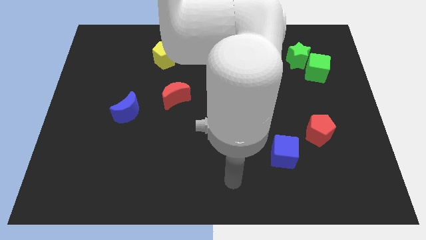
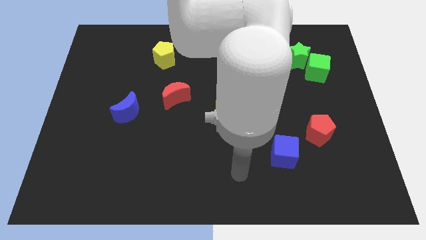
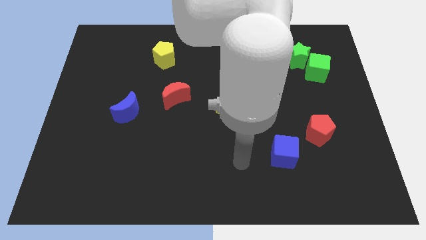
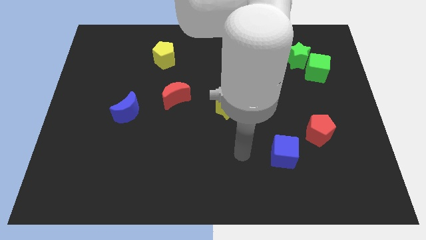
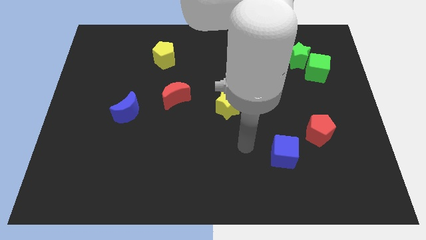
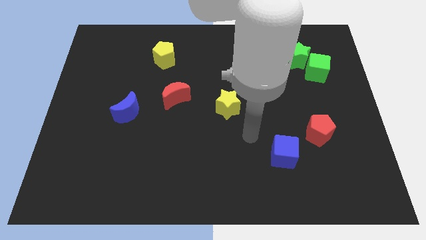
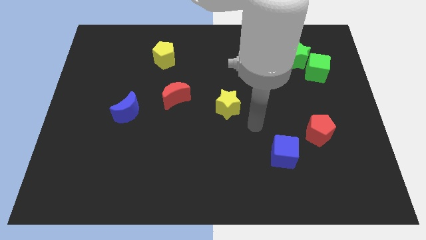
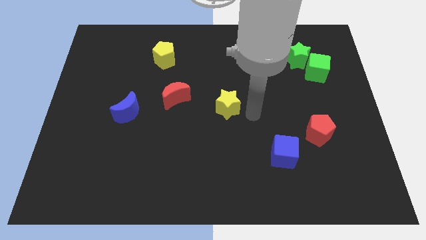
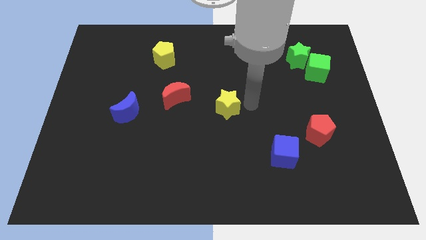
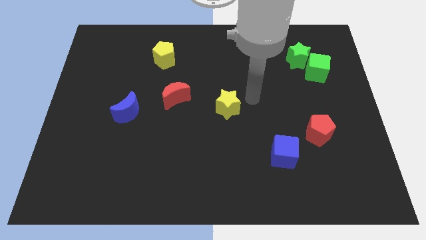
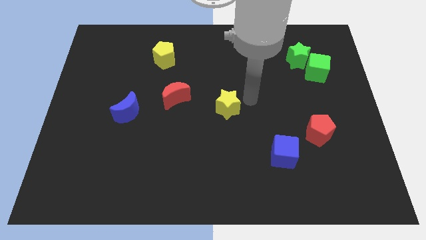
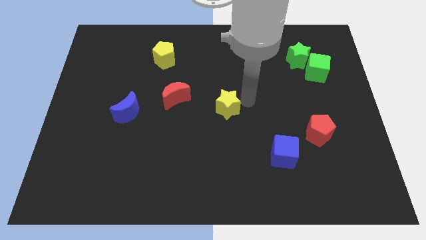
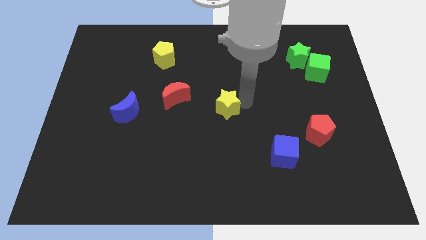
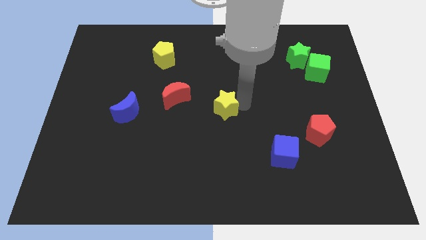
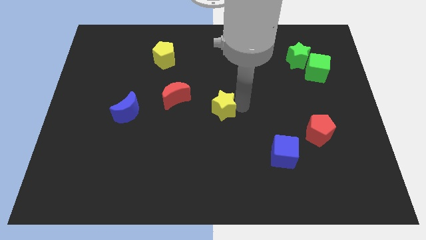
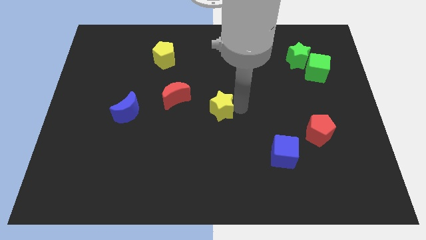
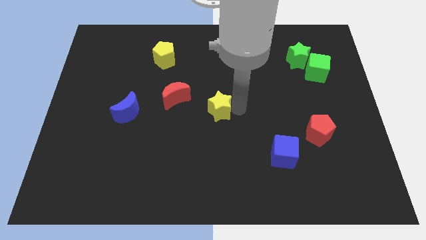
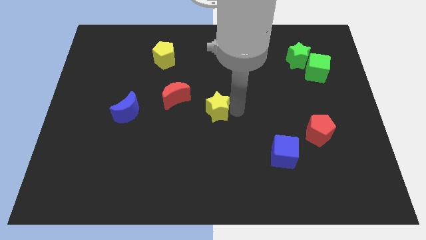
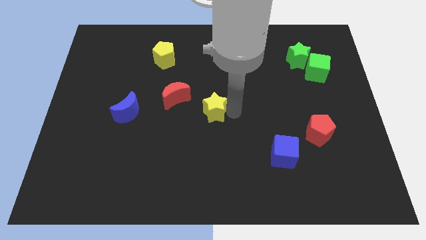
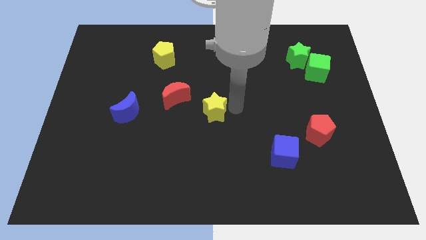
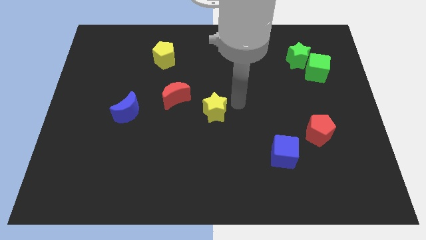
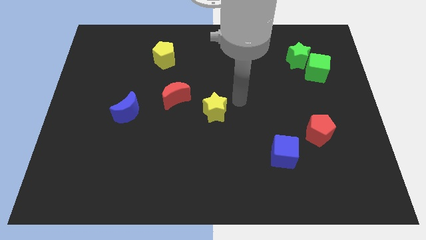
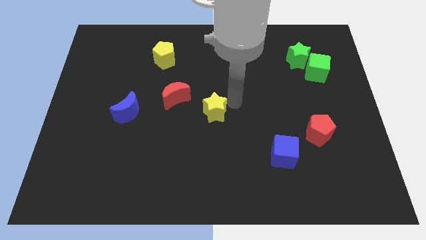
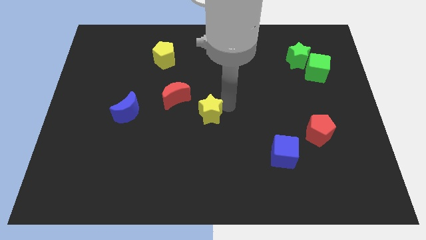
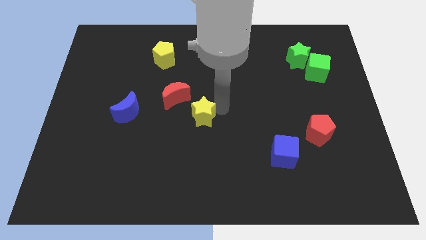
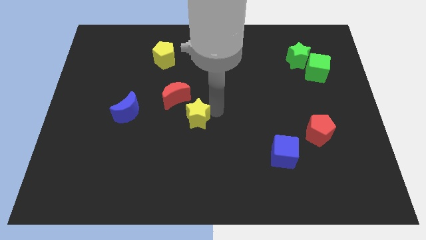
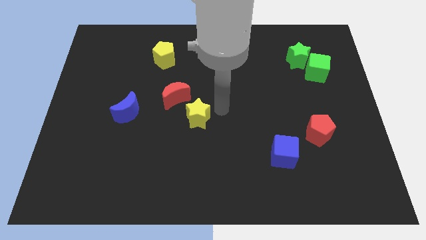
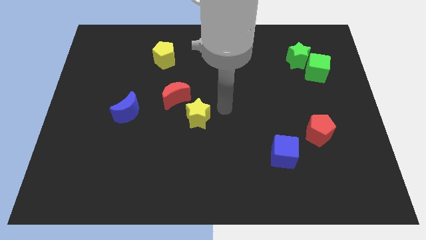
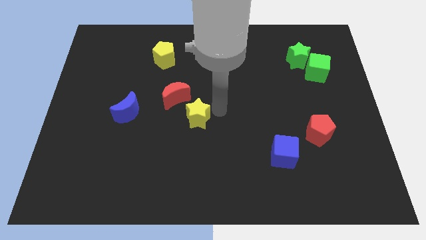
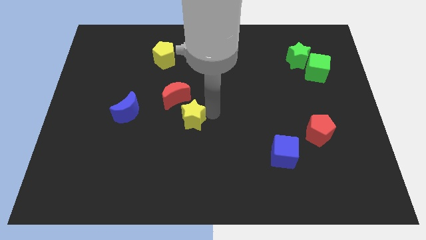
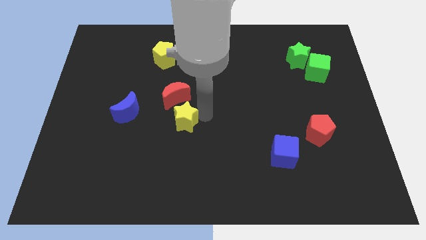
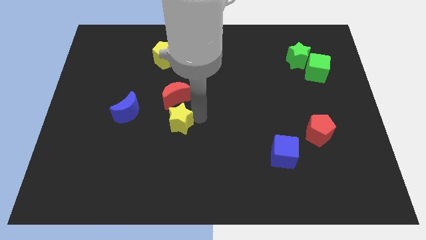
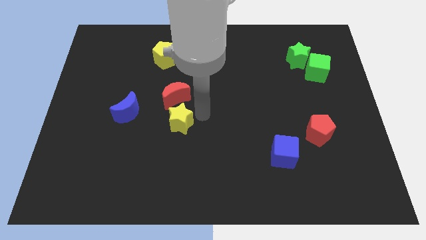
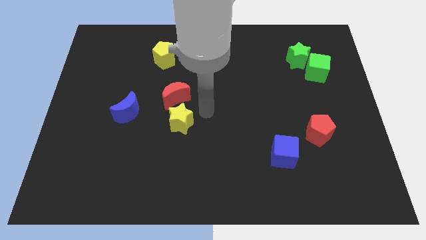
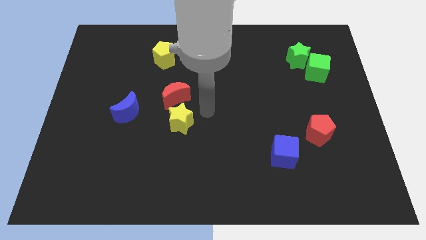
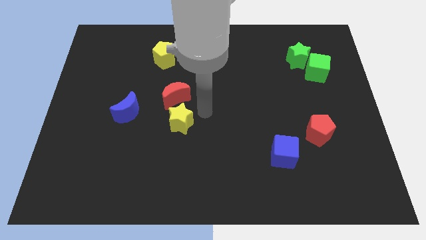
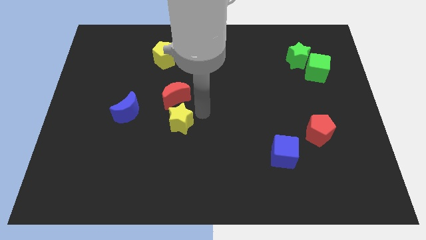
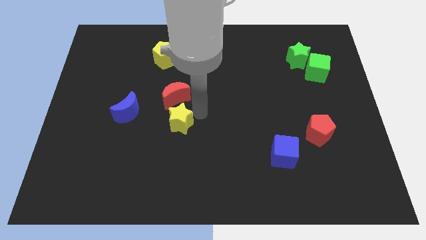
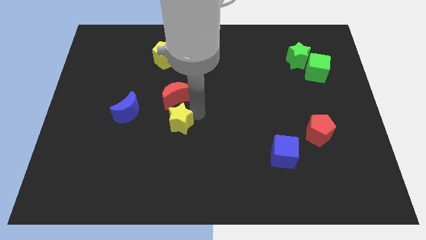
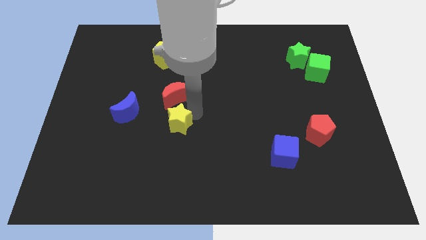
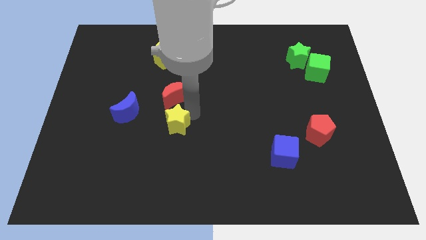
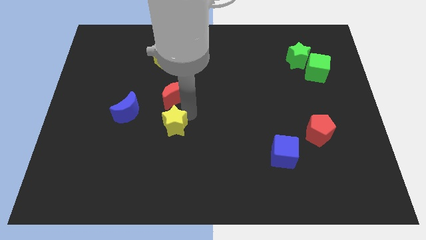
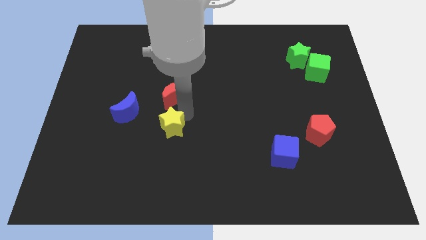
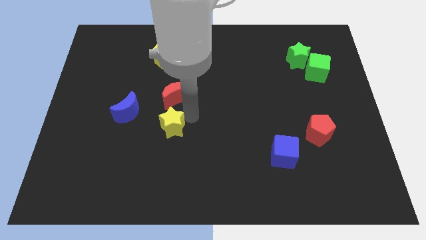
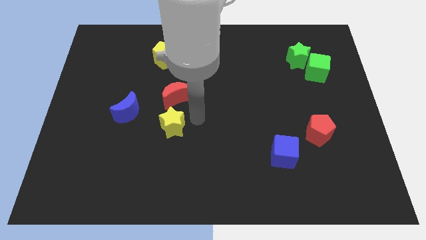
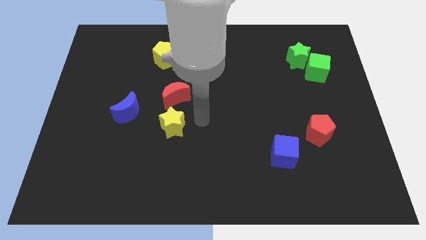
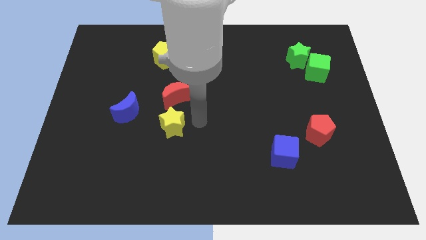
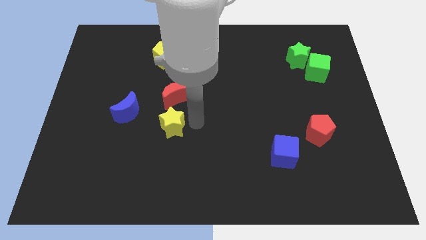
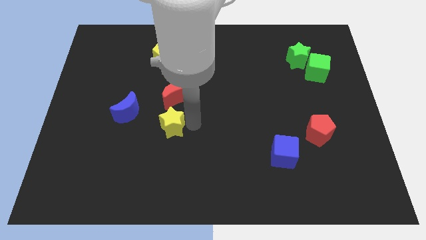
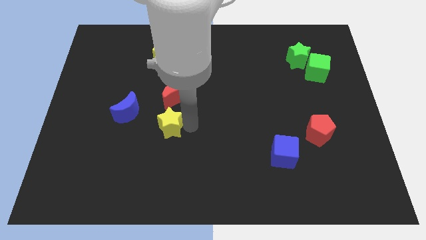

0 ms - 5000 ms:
put the yellow star to the bottom right side of the blue moon

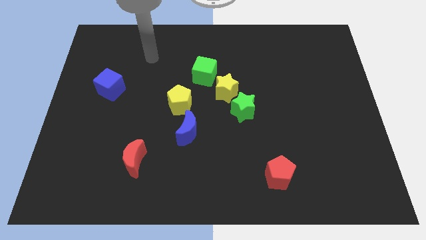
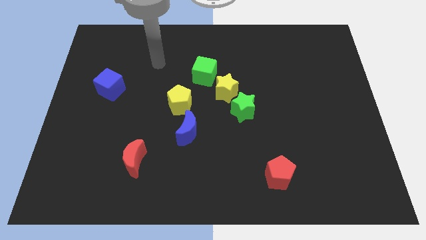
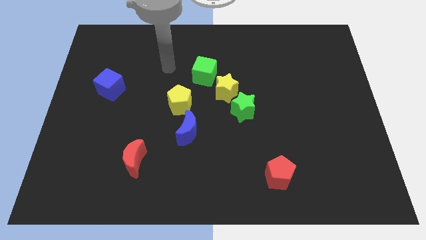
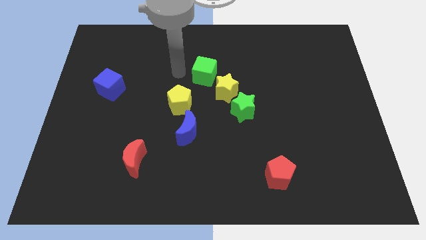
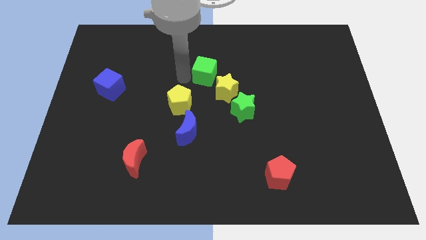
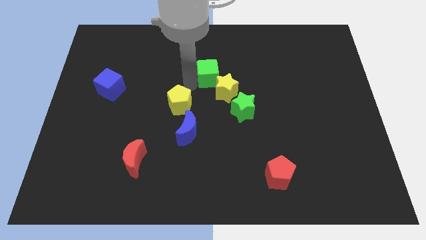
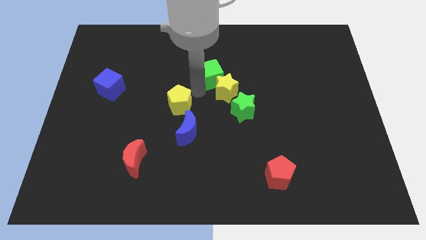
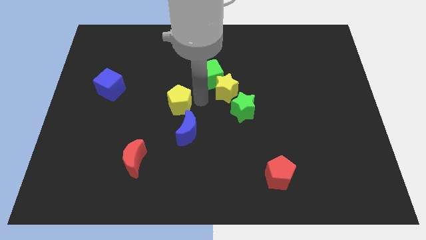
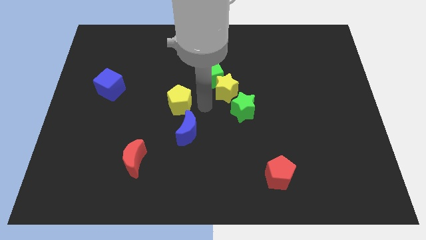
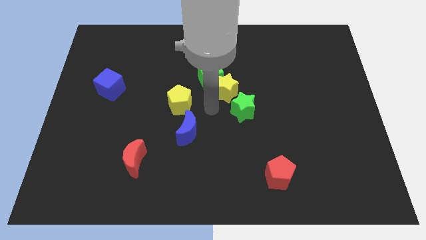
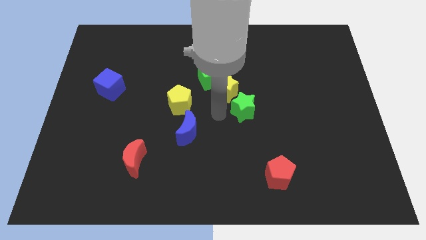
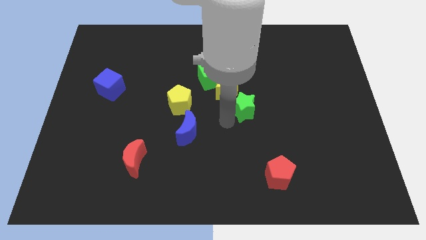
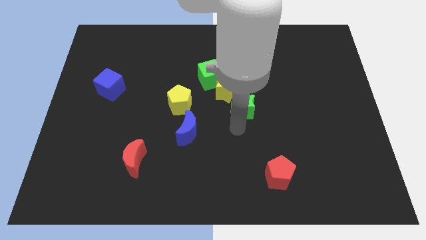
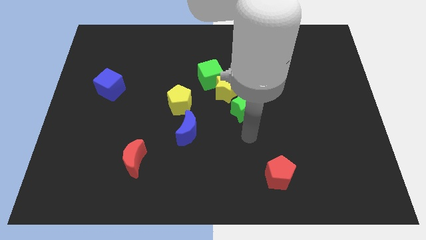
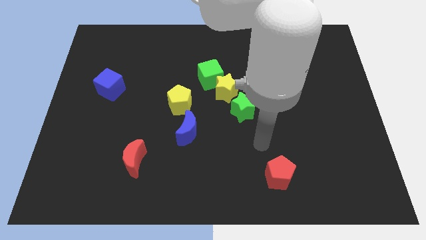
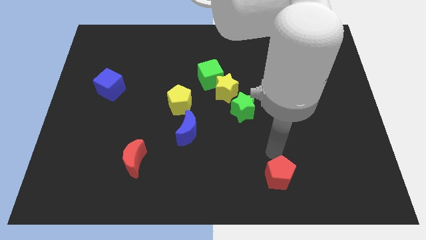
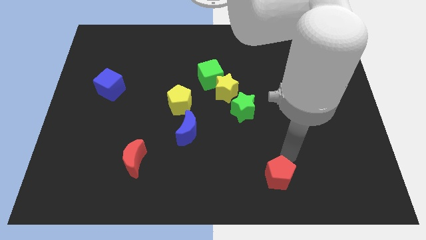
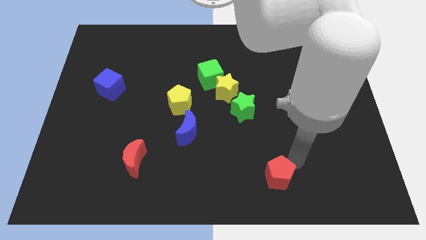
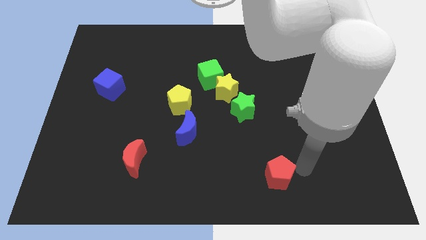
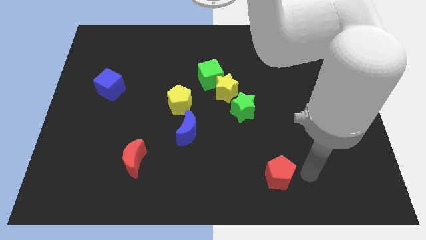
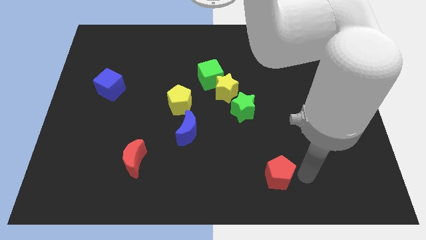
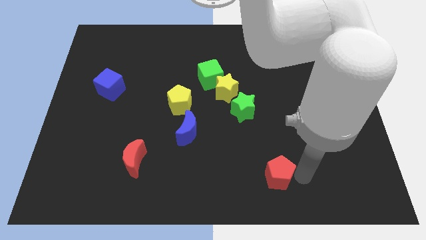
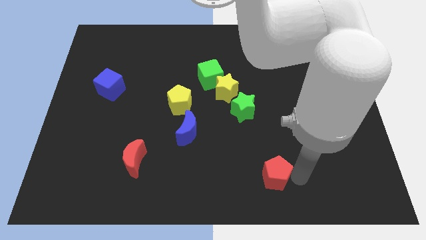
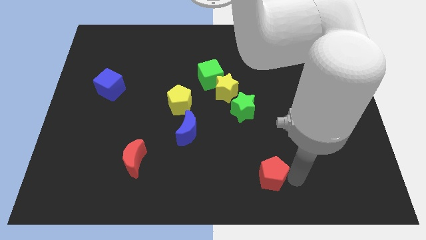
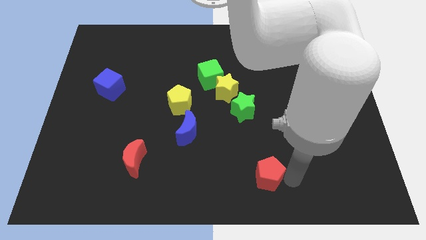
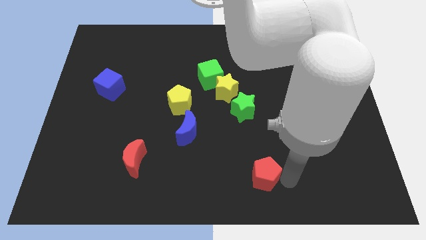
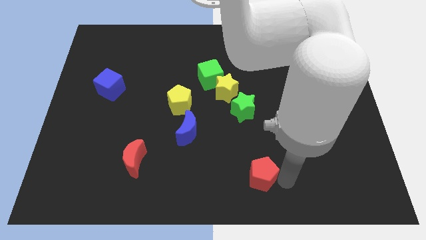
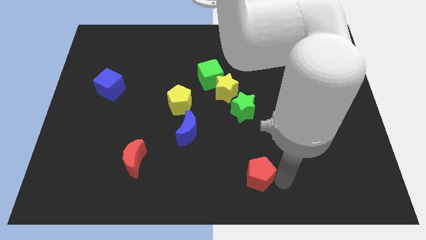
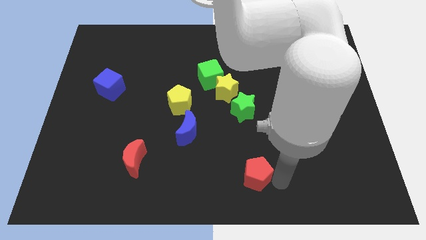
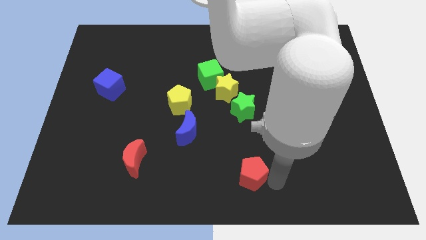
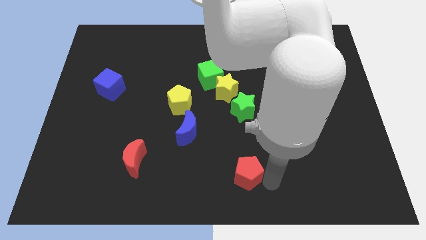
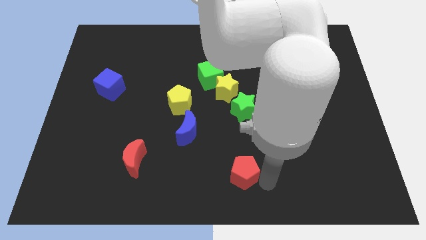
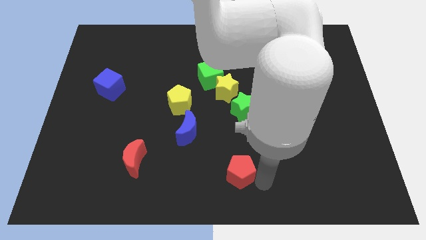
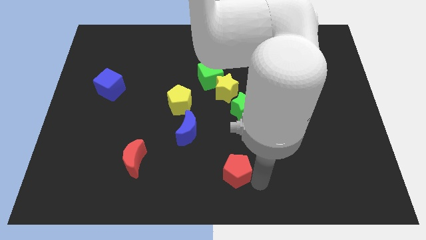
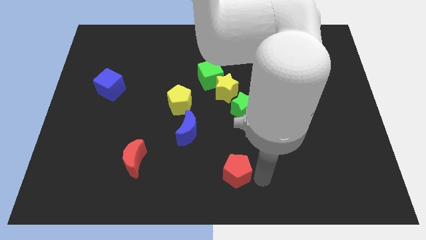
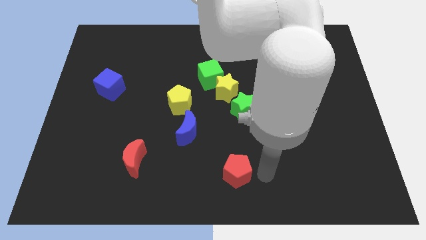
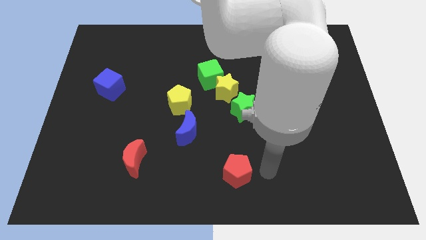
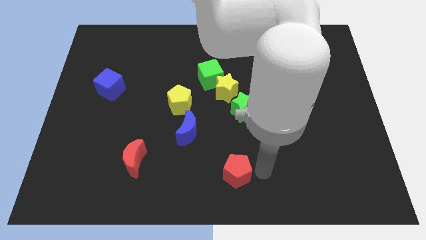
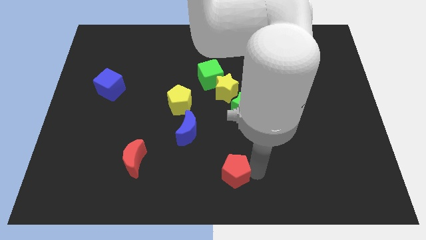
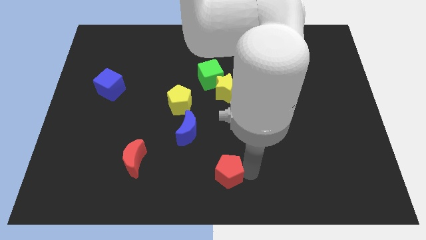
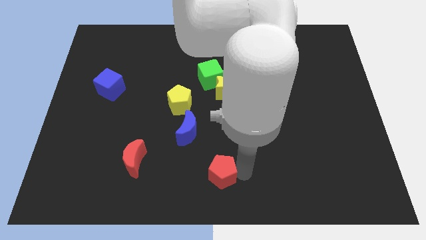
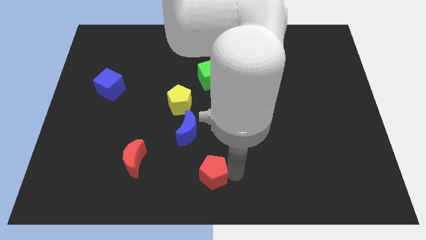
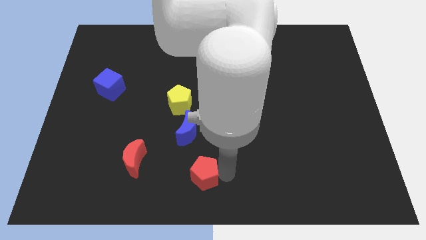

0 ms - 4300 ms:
move the red pentagon below the blue moon
